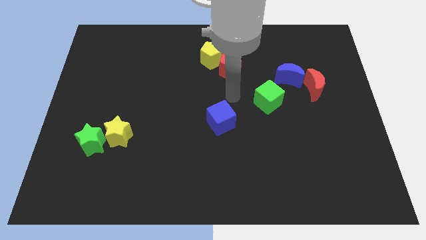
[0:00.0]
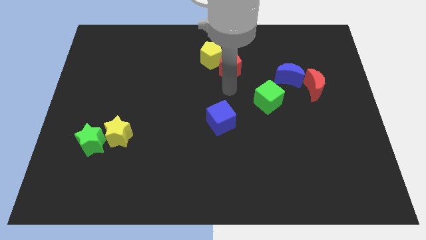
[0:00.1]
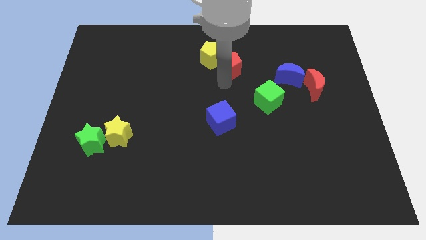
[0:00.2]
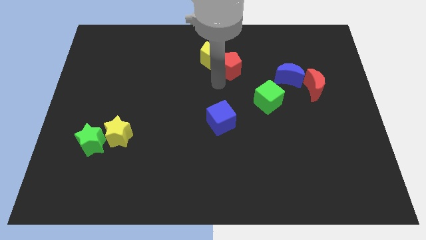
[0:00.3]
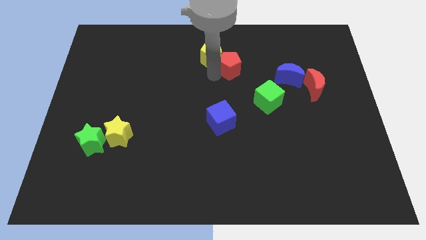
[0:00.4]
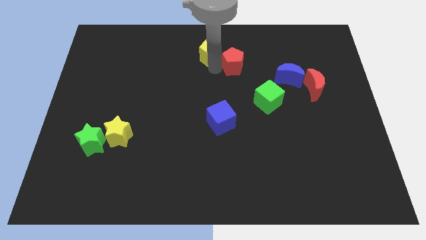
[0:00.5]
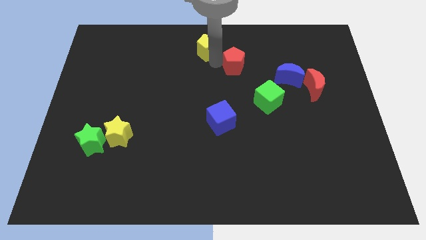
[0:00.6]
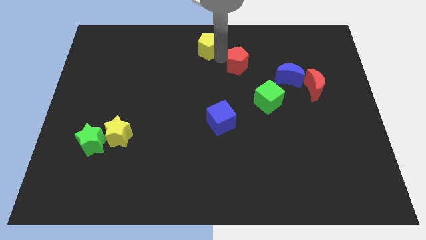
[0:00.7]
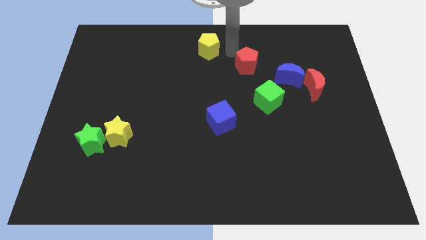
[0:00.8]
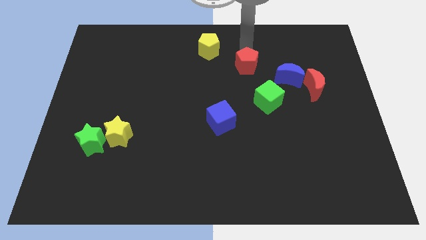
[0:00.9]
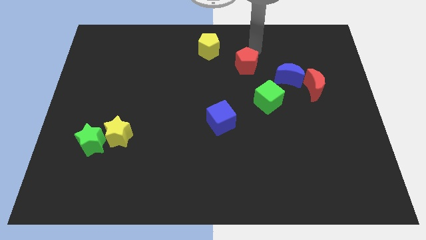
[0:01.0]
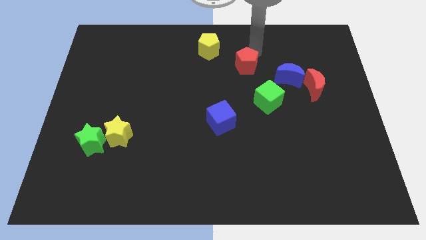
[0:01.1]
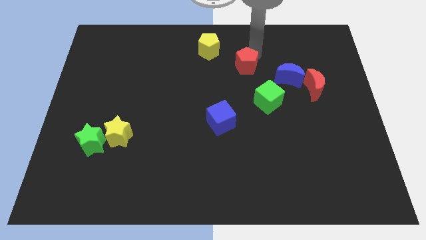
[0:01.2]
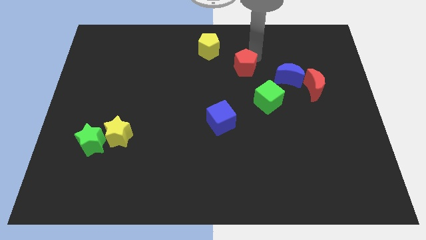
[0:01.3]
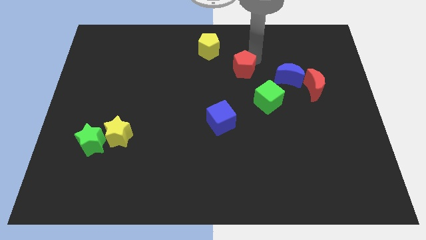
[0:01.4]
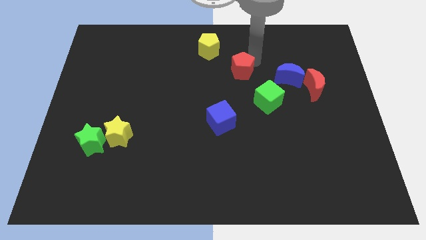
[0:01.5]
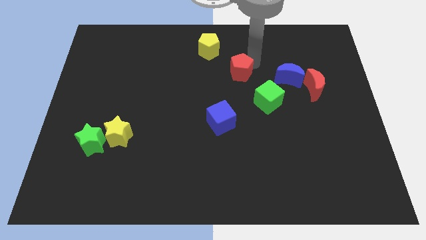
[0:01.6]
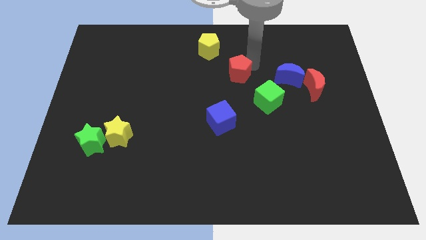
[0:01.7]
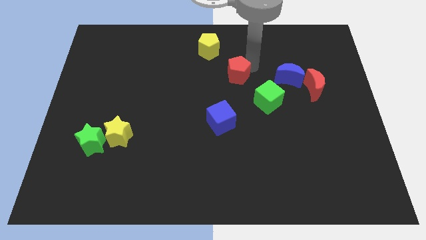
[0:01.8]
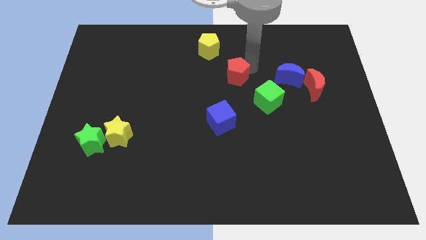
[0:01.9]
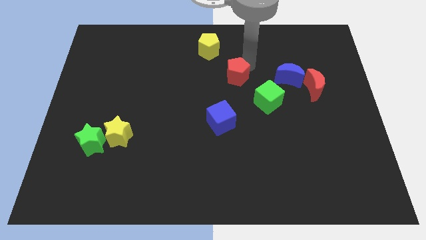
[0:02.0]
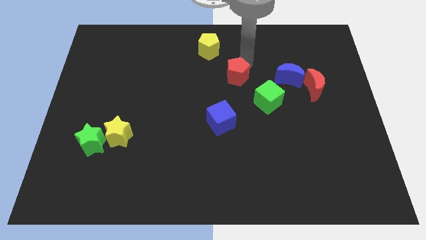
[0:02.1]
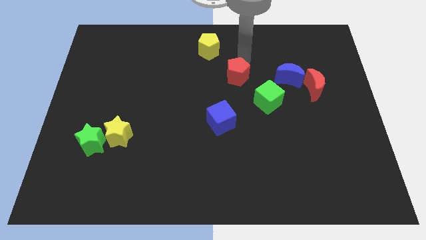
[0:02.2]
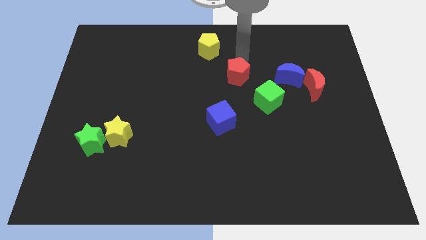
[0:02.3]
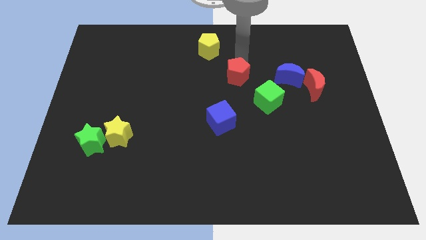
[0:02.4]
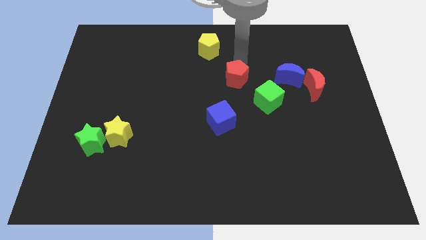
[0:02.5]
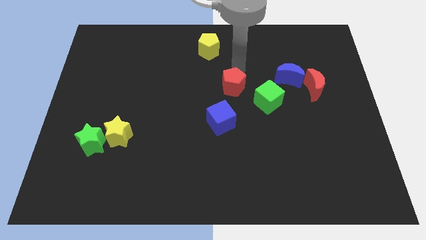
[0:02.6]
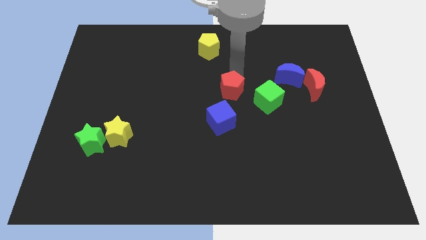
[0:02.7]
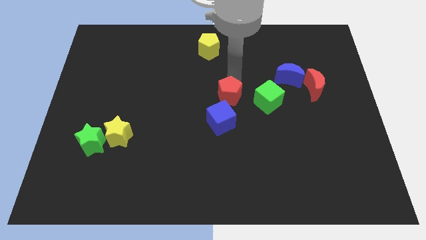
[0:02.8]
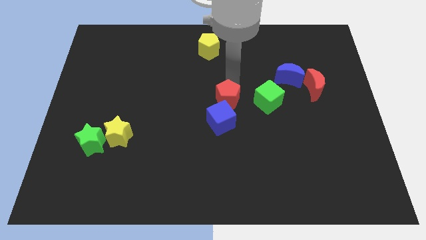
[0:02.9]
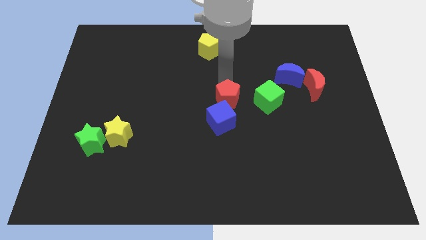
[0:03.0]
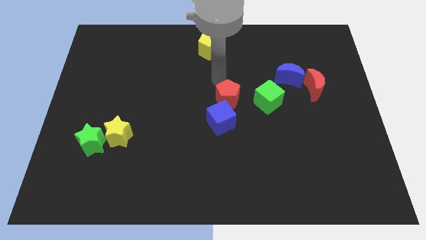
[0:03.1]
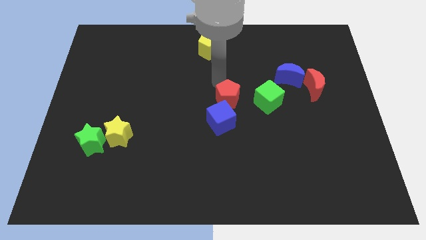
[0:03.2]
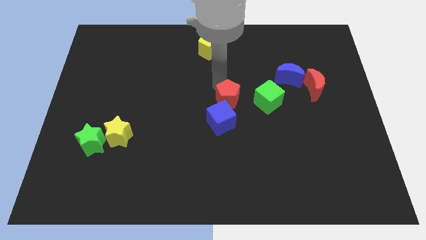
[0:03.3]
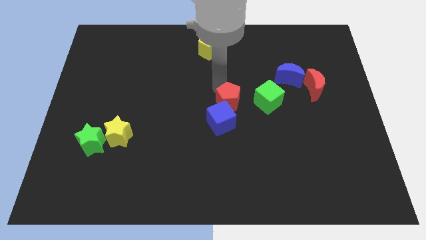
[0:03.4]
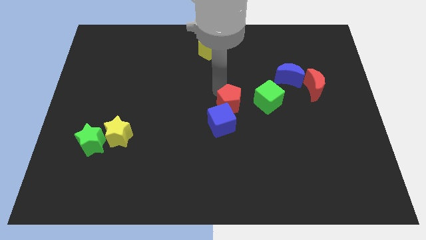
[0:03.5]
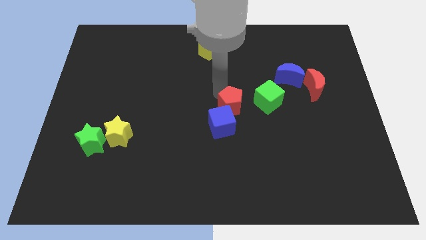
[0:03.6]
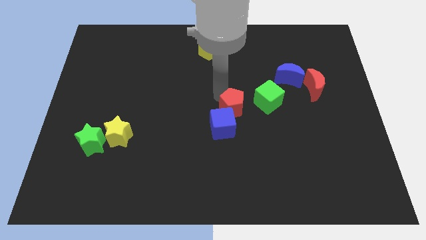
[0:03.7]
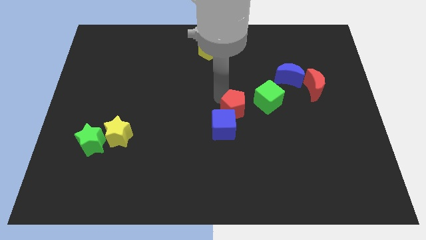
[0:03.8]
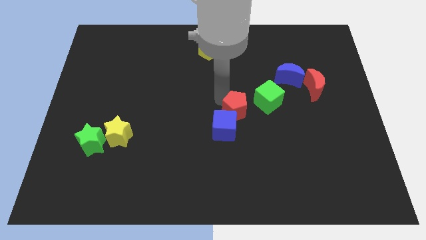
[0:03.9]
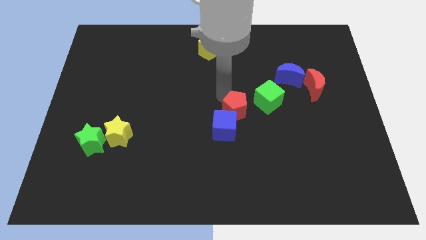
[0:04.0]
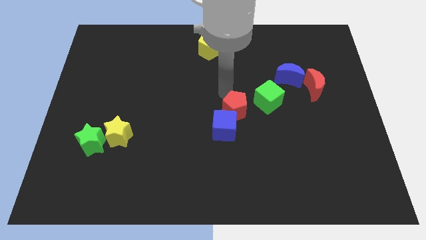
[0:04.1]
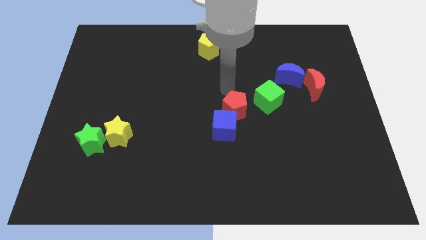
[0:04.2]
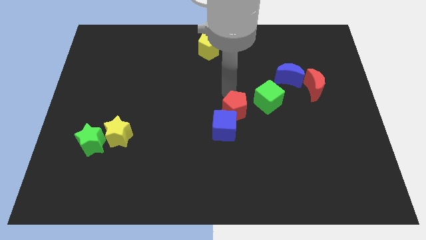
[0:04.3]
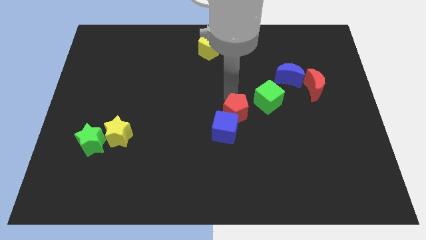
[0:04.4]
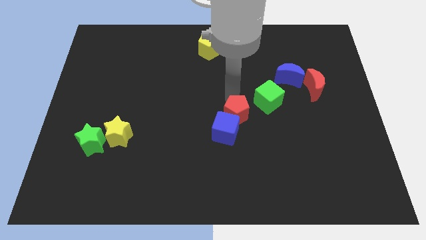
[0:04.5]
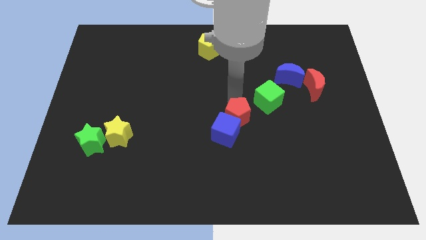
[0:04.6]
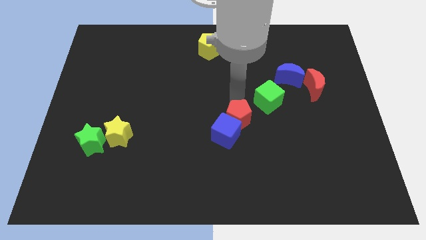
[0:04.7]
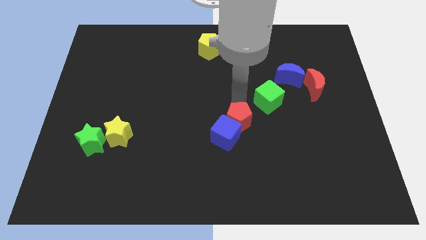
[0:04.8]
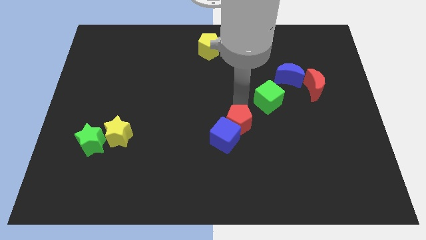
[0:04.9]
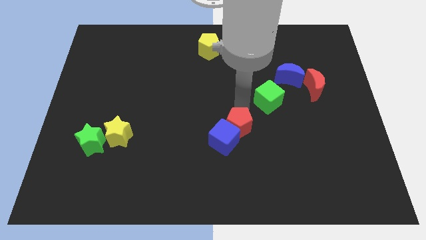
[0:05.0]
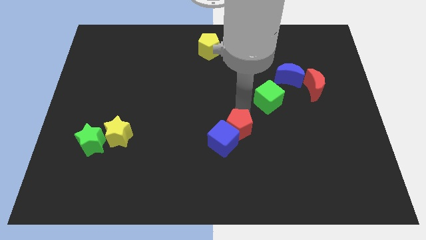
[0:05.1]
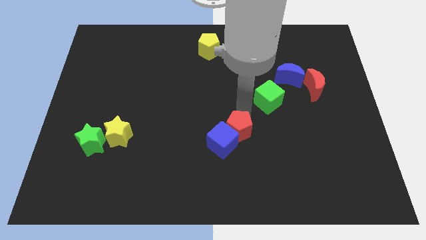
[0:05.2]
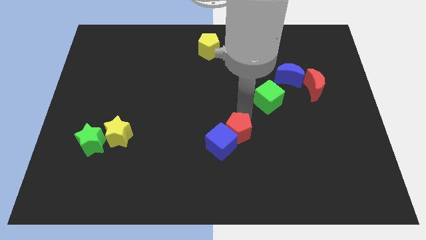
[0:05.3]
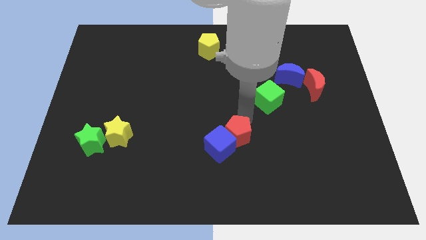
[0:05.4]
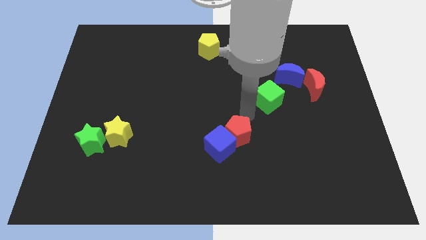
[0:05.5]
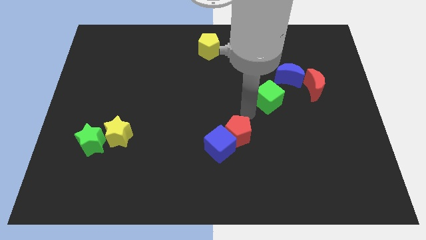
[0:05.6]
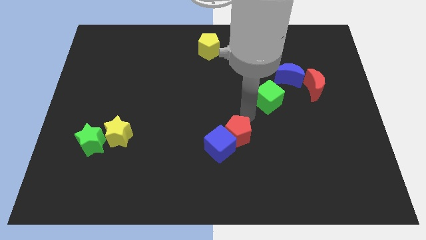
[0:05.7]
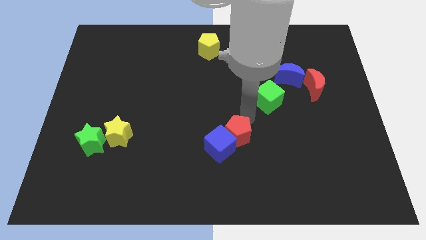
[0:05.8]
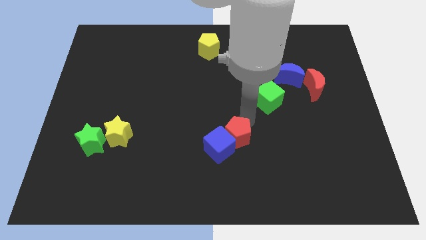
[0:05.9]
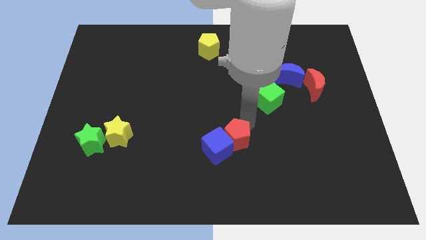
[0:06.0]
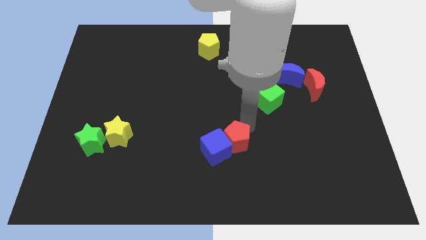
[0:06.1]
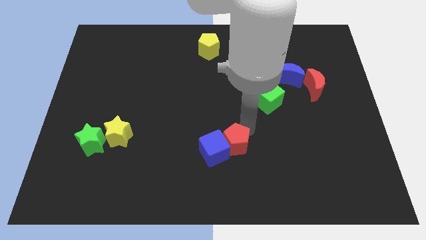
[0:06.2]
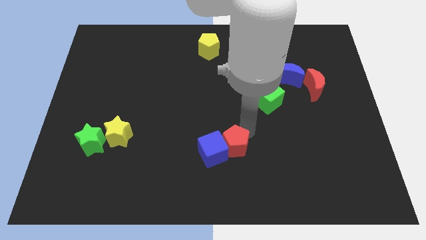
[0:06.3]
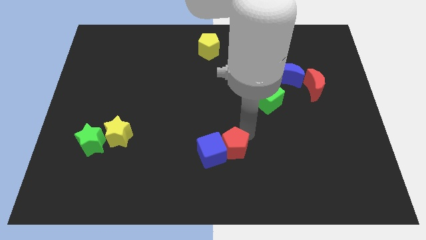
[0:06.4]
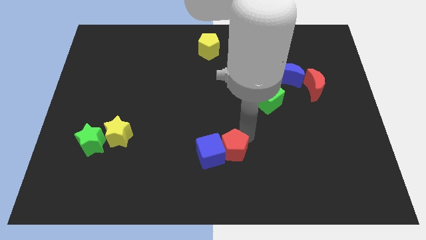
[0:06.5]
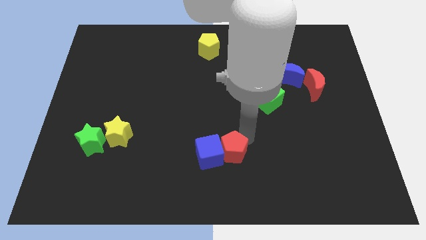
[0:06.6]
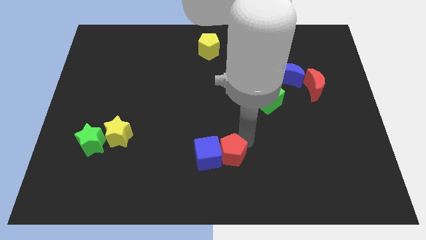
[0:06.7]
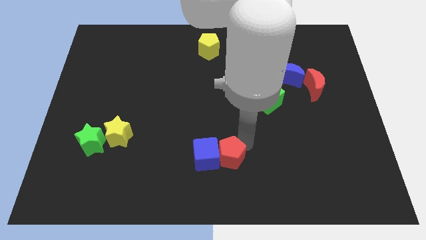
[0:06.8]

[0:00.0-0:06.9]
push the red pentagon to the bottom side
